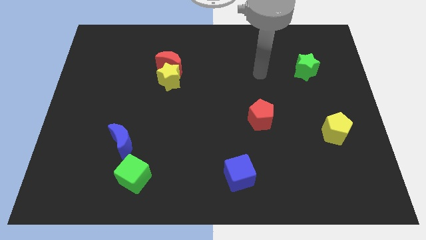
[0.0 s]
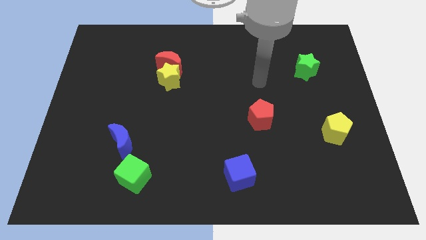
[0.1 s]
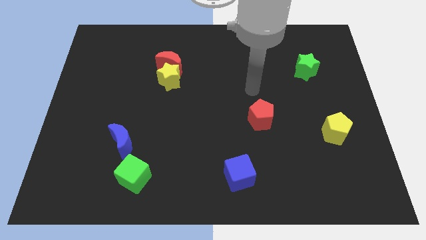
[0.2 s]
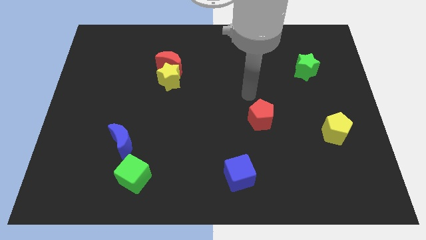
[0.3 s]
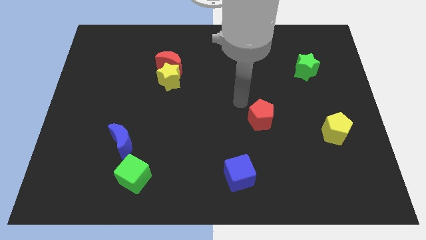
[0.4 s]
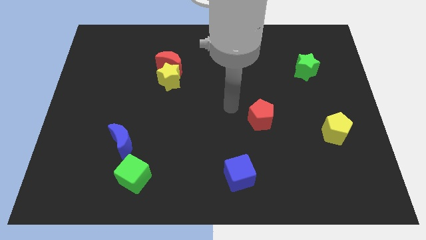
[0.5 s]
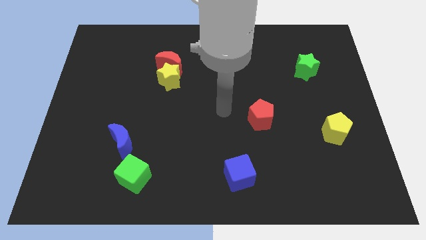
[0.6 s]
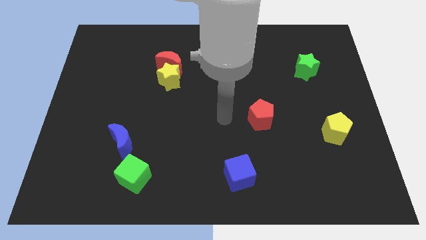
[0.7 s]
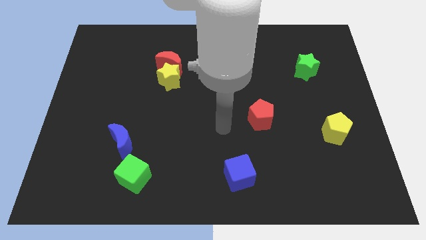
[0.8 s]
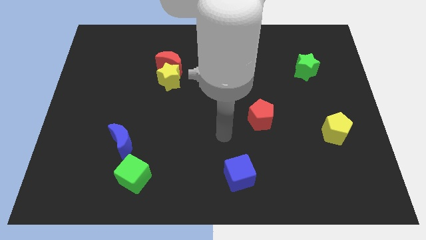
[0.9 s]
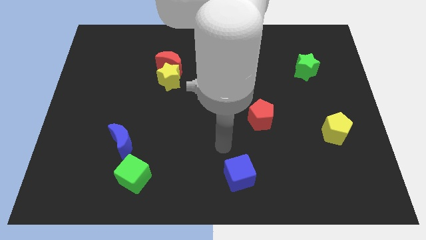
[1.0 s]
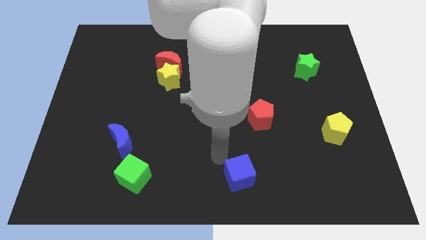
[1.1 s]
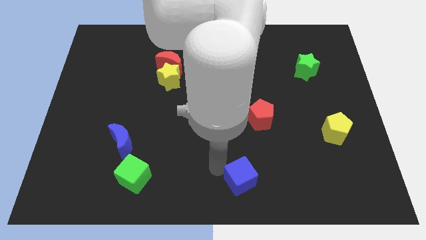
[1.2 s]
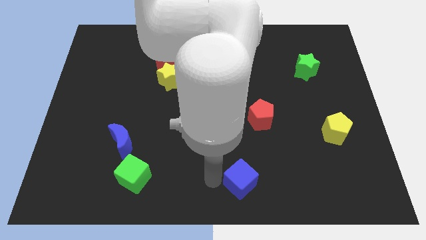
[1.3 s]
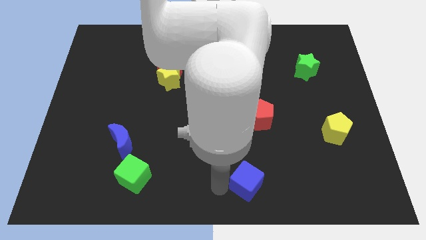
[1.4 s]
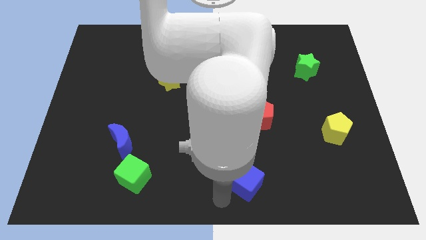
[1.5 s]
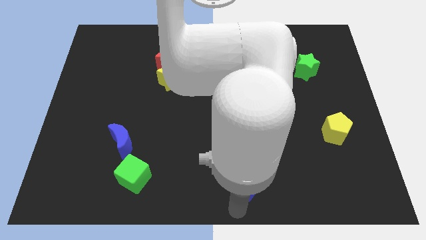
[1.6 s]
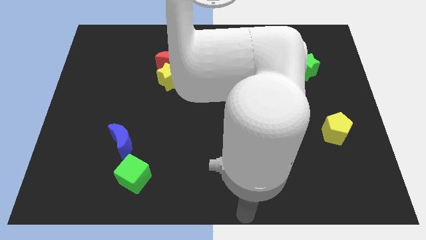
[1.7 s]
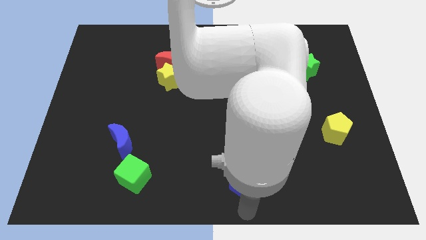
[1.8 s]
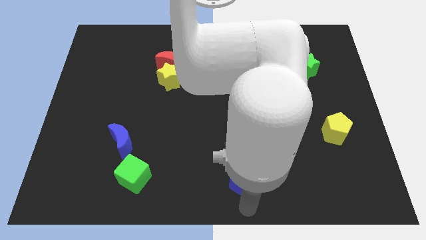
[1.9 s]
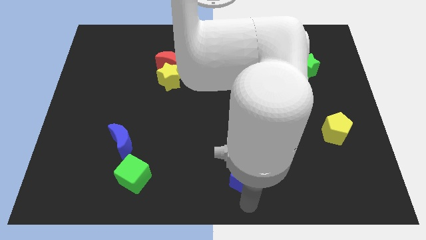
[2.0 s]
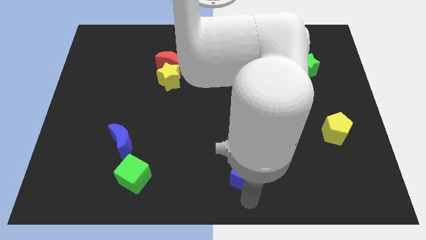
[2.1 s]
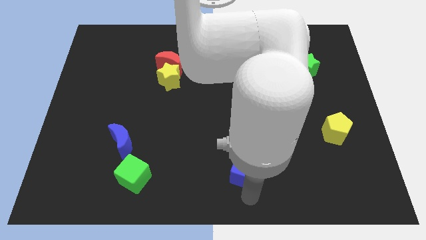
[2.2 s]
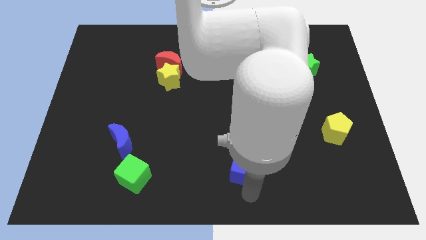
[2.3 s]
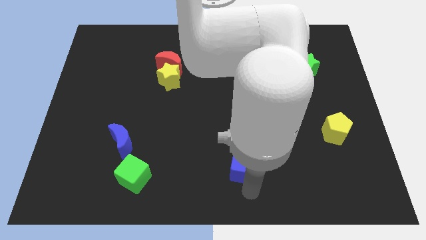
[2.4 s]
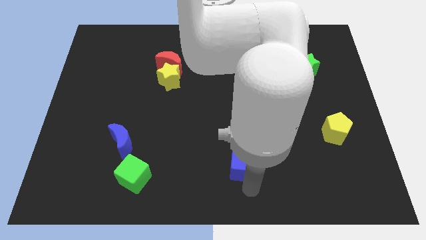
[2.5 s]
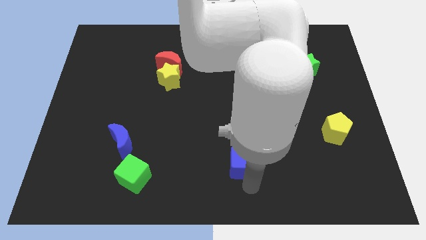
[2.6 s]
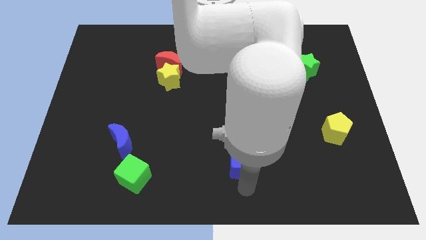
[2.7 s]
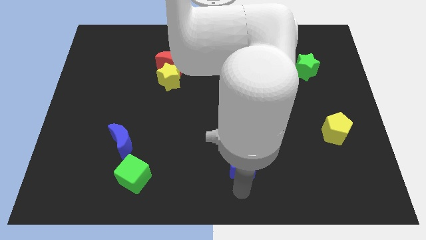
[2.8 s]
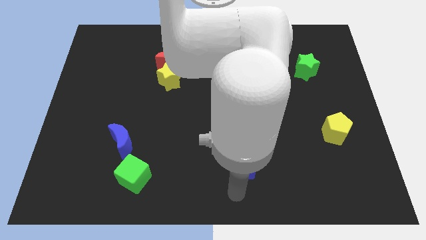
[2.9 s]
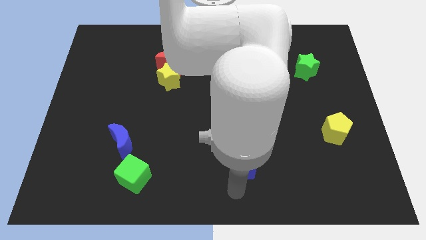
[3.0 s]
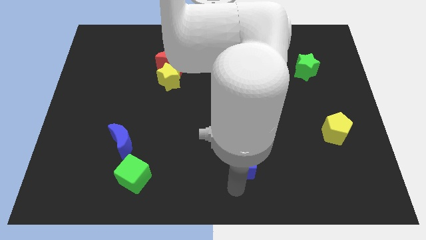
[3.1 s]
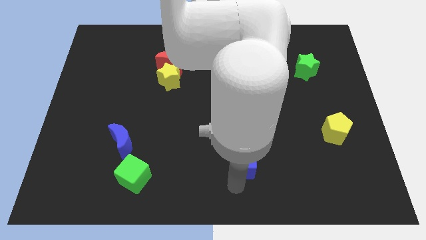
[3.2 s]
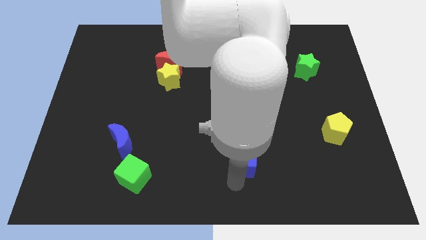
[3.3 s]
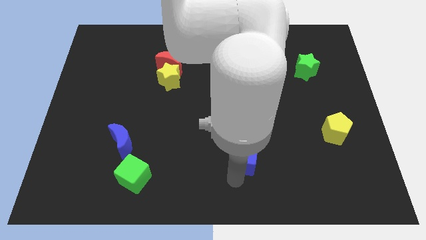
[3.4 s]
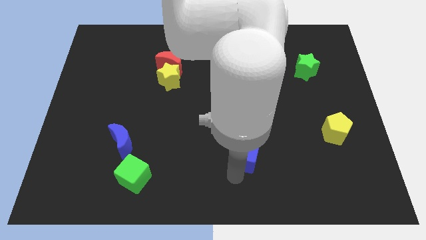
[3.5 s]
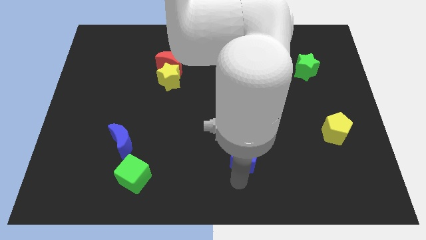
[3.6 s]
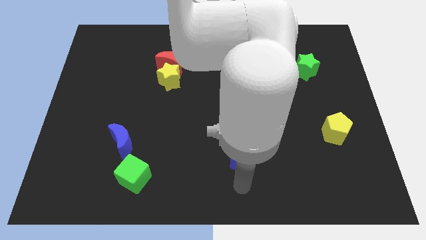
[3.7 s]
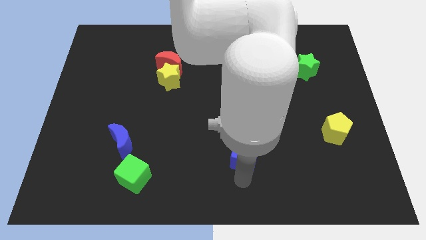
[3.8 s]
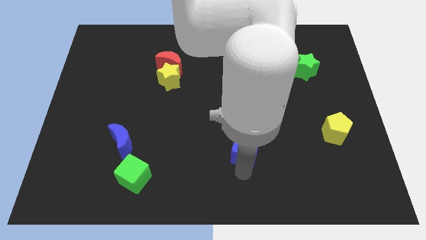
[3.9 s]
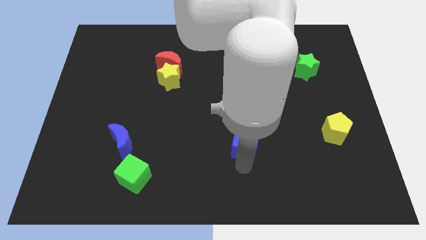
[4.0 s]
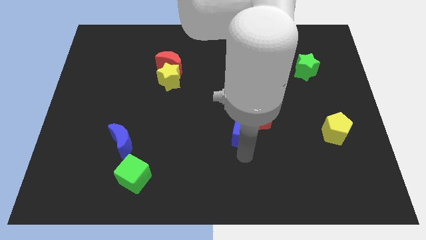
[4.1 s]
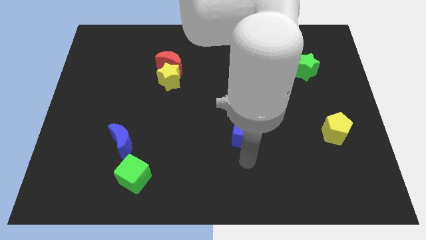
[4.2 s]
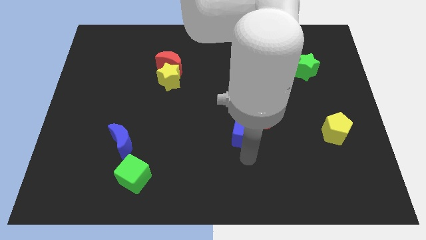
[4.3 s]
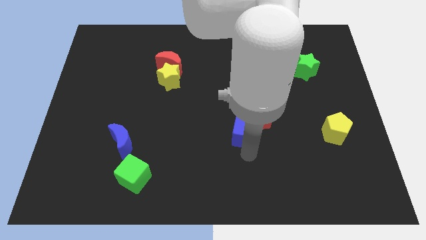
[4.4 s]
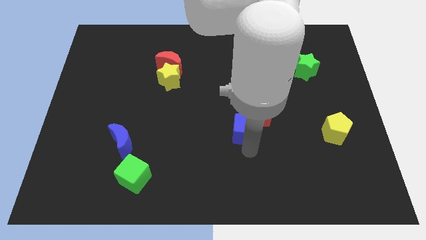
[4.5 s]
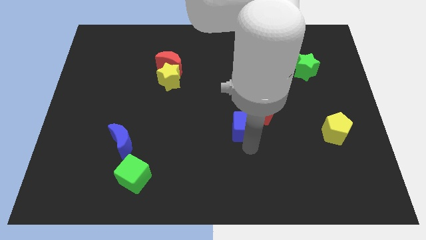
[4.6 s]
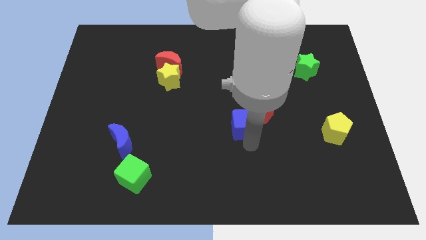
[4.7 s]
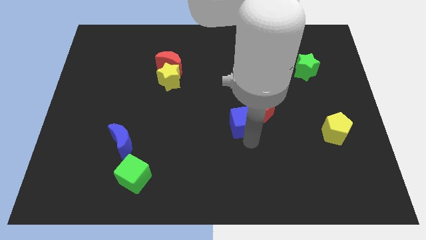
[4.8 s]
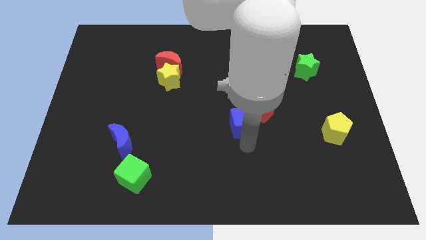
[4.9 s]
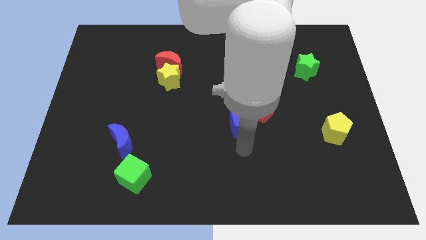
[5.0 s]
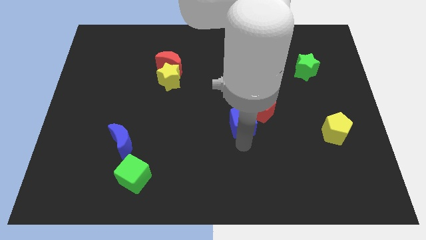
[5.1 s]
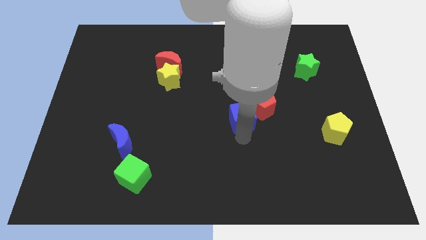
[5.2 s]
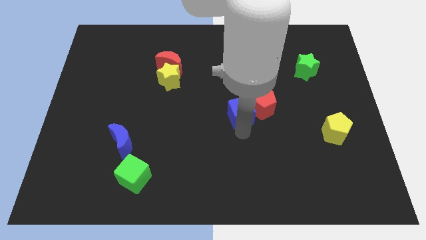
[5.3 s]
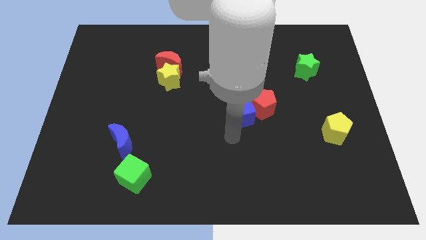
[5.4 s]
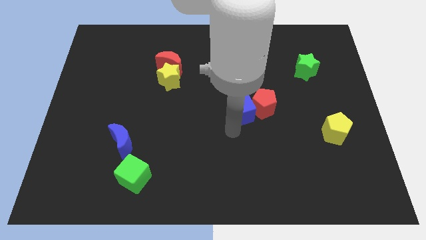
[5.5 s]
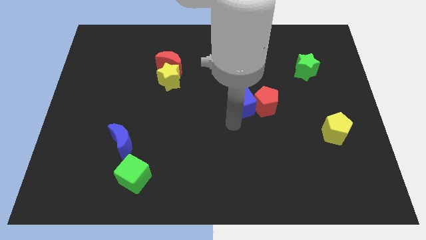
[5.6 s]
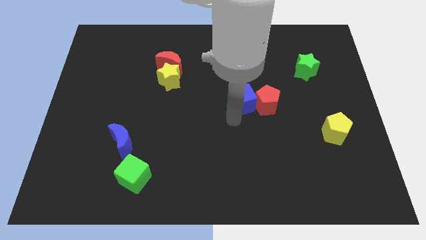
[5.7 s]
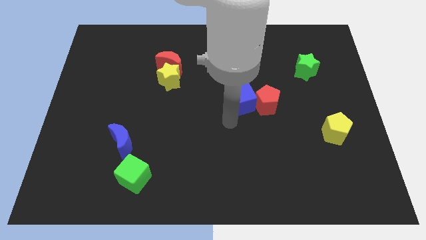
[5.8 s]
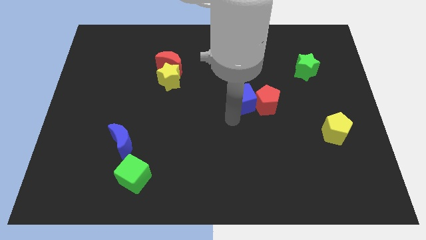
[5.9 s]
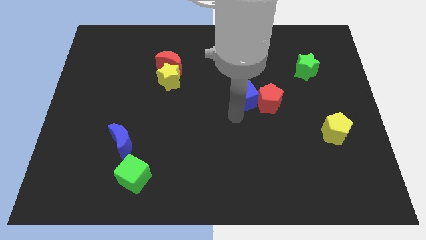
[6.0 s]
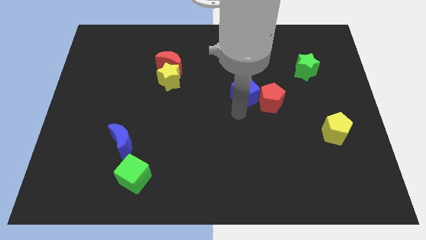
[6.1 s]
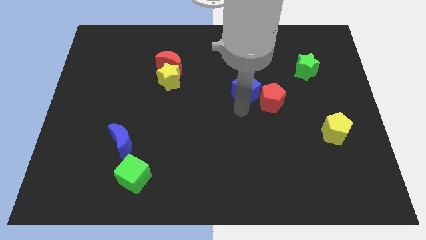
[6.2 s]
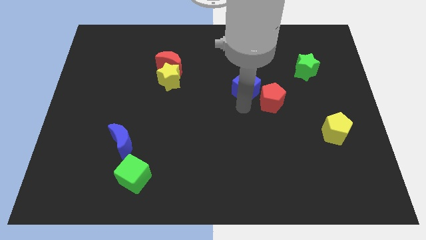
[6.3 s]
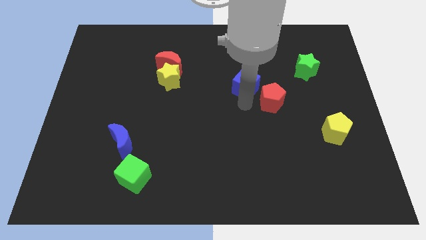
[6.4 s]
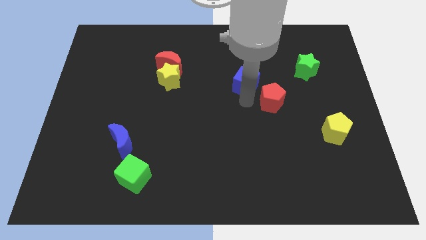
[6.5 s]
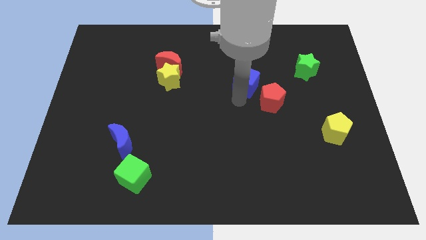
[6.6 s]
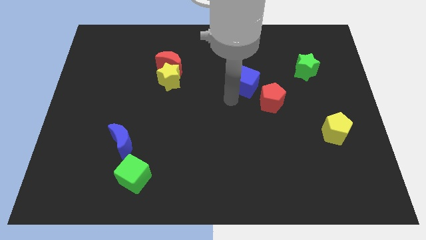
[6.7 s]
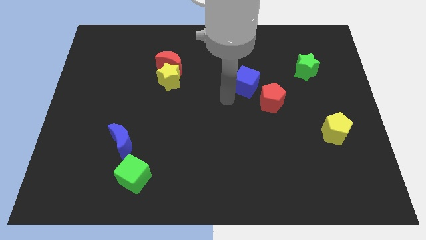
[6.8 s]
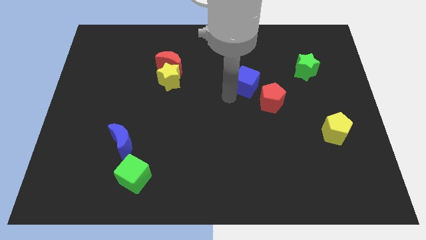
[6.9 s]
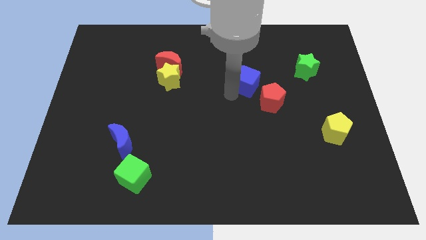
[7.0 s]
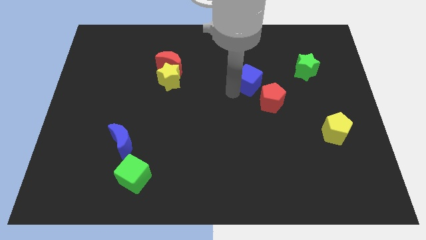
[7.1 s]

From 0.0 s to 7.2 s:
put the blue cube above the red pentagon

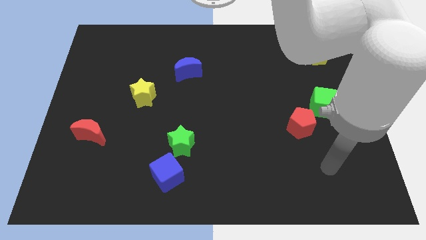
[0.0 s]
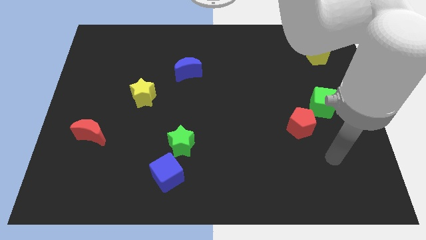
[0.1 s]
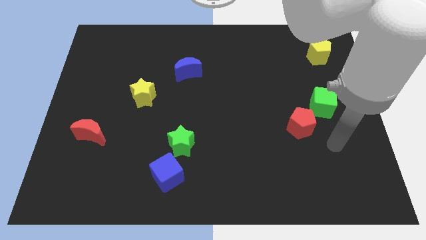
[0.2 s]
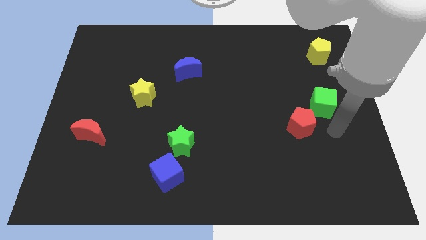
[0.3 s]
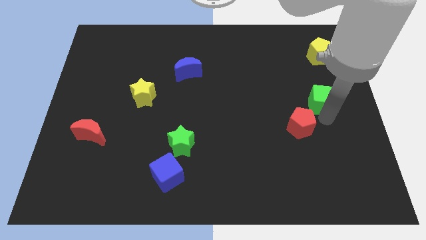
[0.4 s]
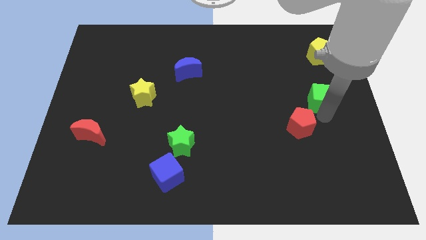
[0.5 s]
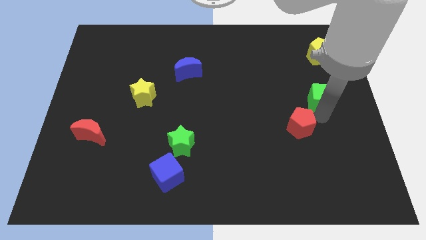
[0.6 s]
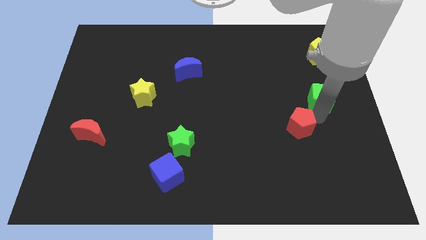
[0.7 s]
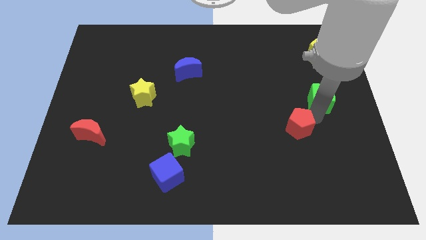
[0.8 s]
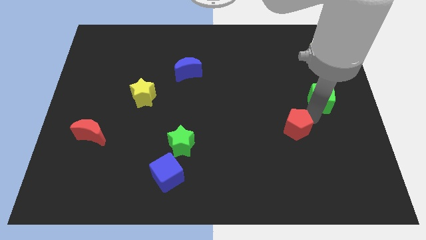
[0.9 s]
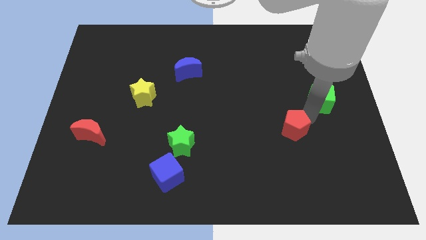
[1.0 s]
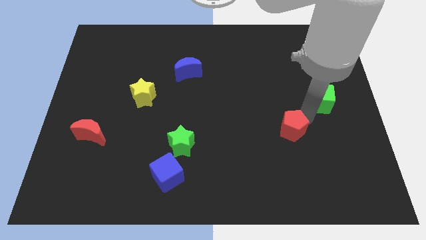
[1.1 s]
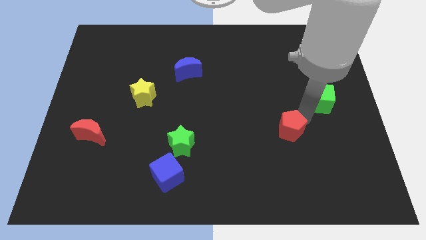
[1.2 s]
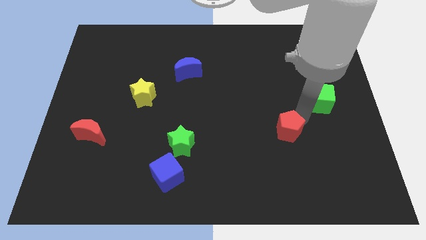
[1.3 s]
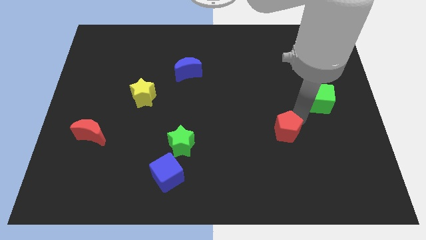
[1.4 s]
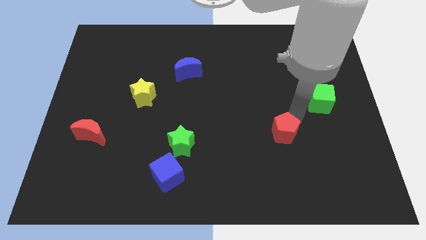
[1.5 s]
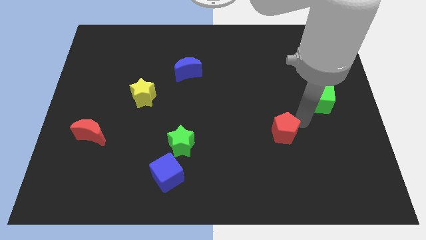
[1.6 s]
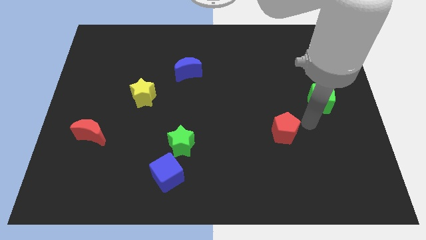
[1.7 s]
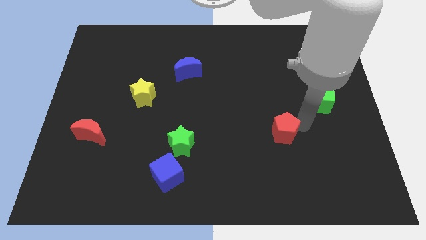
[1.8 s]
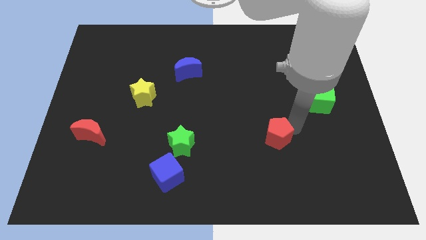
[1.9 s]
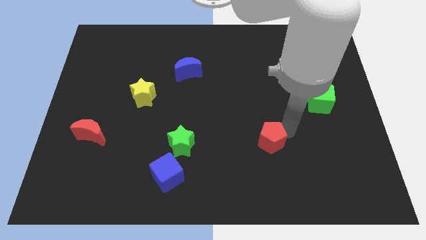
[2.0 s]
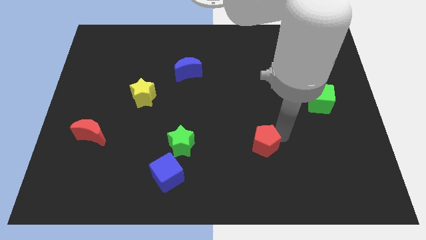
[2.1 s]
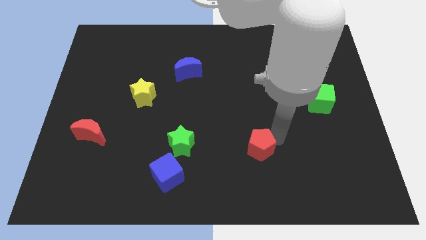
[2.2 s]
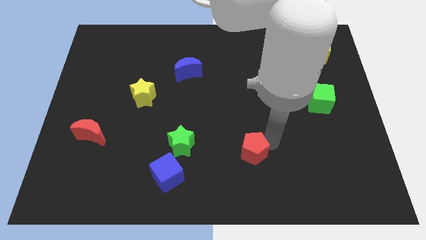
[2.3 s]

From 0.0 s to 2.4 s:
push the red pentagon to the right of the green star
